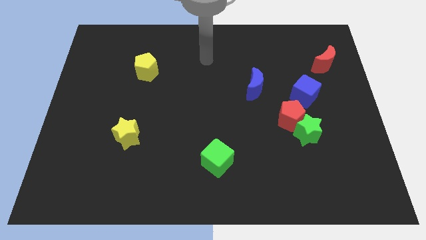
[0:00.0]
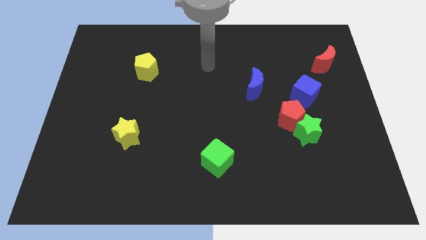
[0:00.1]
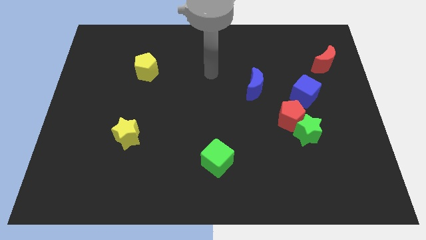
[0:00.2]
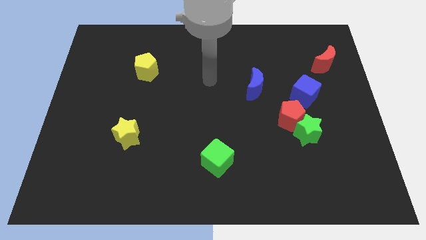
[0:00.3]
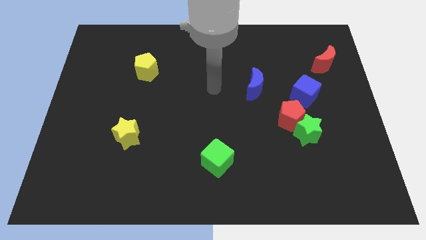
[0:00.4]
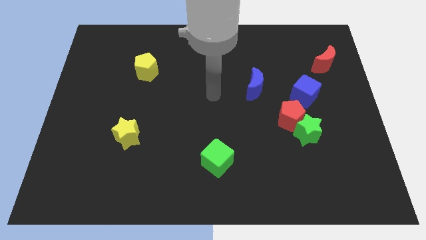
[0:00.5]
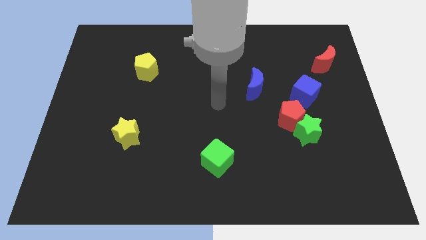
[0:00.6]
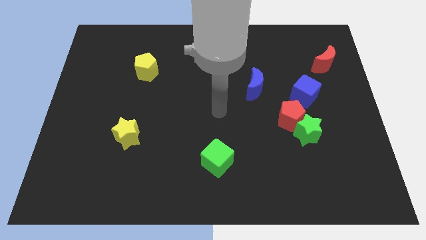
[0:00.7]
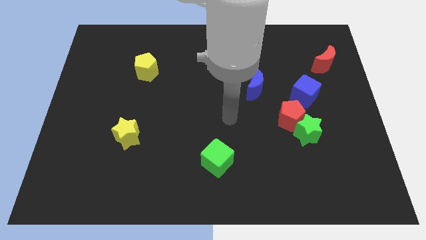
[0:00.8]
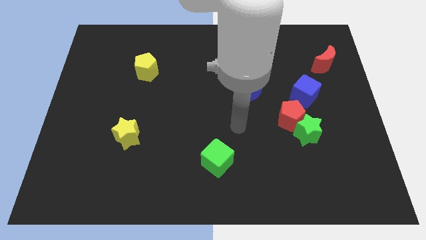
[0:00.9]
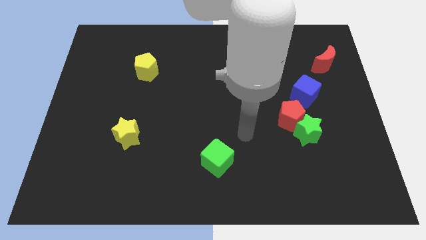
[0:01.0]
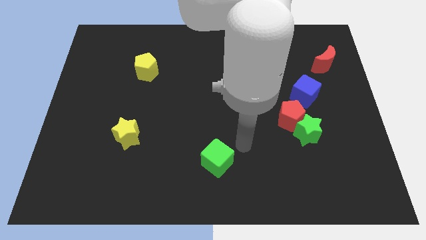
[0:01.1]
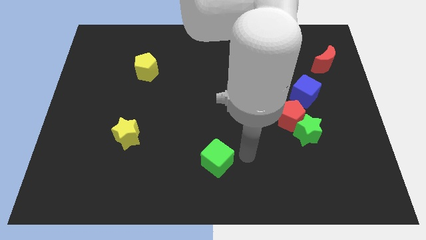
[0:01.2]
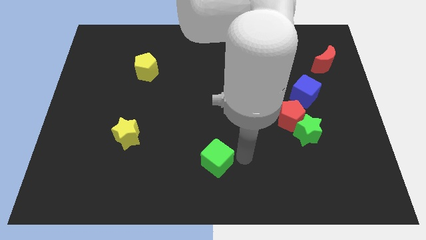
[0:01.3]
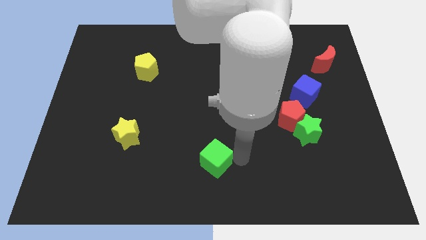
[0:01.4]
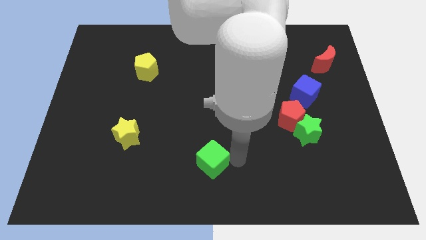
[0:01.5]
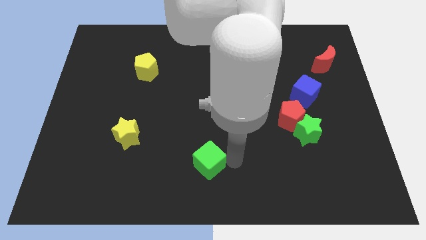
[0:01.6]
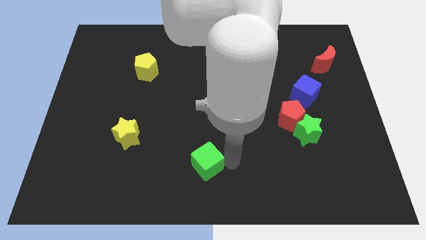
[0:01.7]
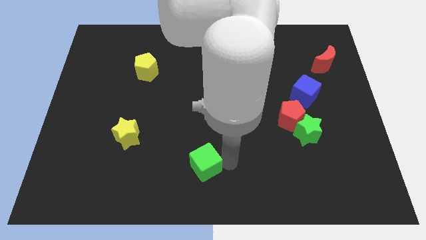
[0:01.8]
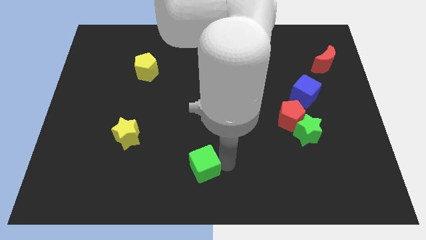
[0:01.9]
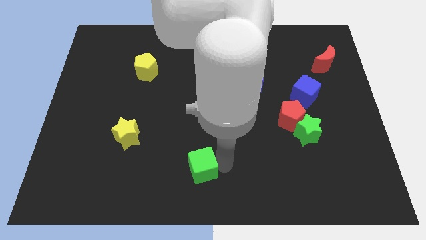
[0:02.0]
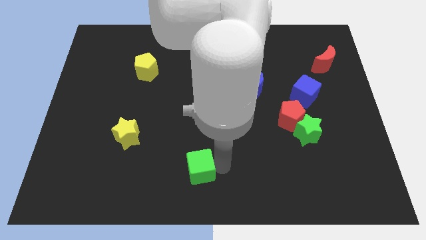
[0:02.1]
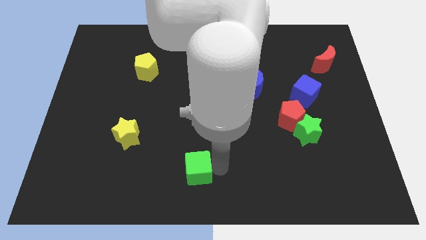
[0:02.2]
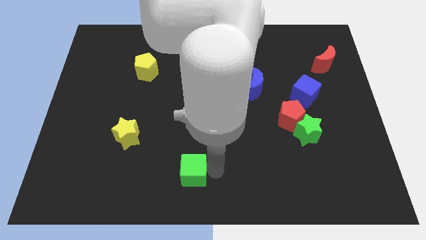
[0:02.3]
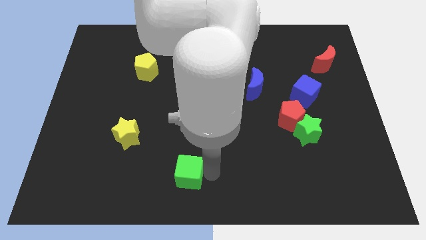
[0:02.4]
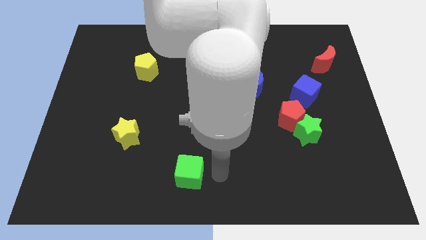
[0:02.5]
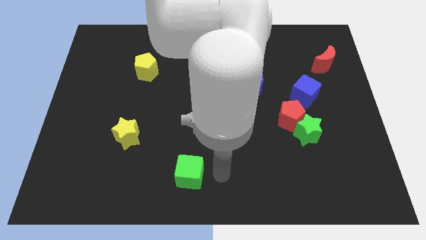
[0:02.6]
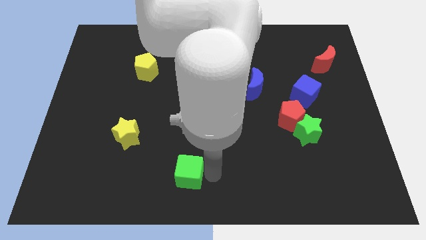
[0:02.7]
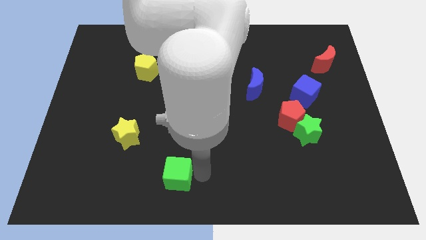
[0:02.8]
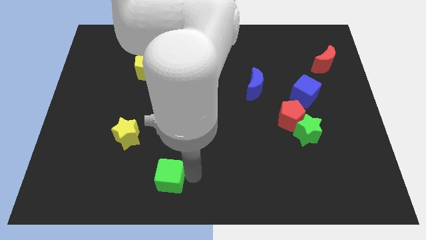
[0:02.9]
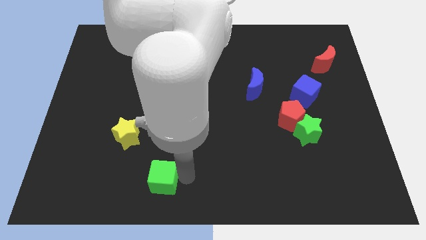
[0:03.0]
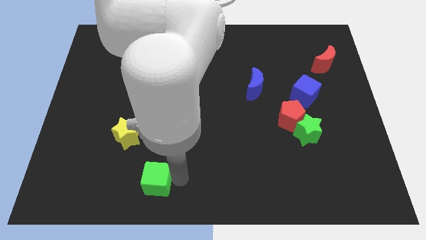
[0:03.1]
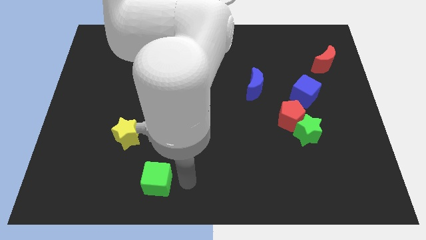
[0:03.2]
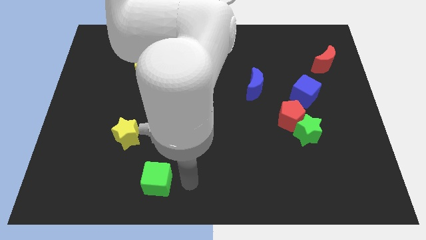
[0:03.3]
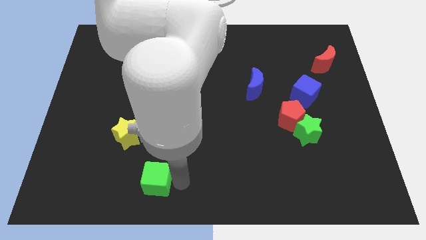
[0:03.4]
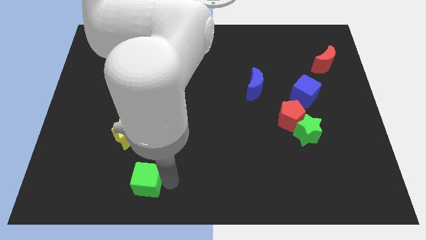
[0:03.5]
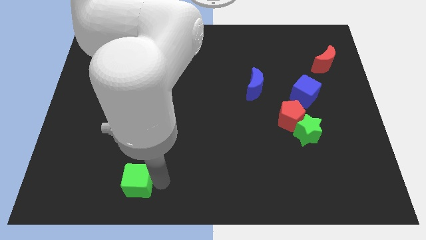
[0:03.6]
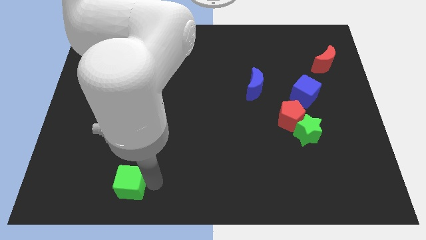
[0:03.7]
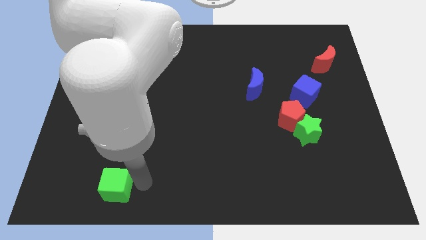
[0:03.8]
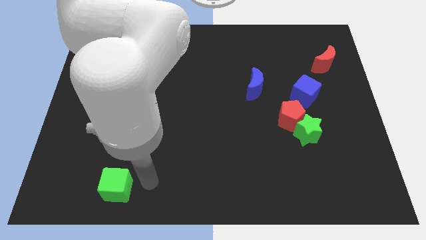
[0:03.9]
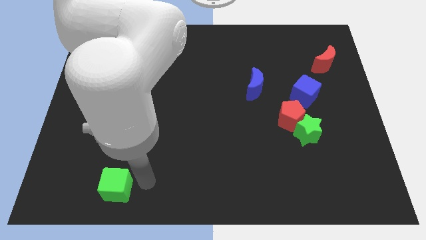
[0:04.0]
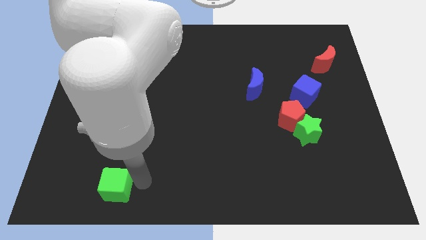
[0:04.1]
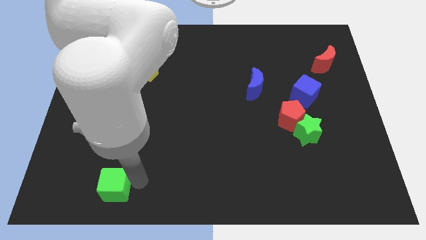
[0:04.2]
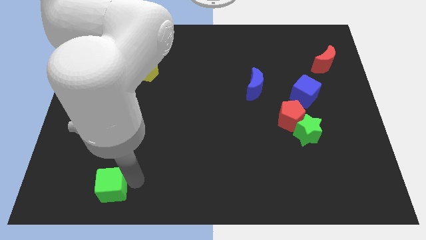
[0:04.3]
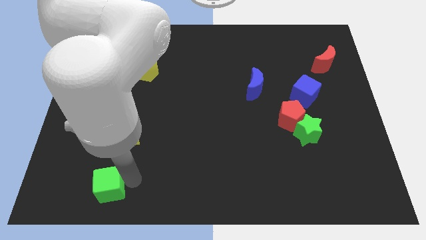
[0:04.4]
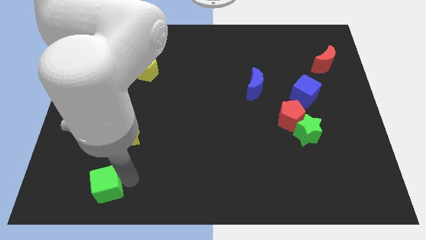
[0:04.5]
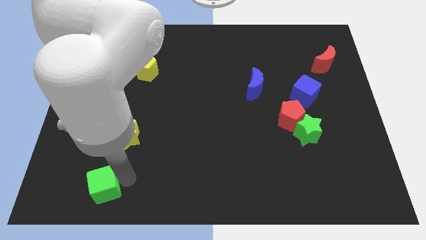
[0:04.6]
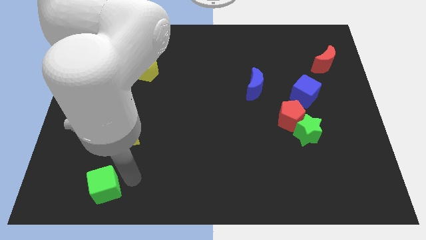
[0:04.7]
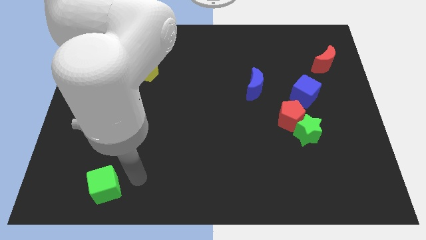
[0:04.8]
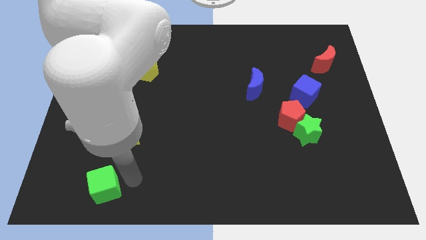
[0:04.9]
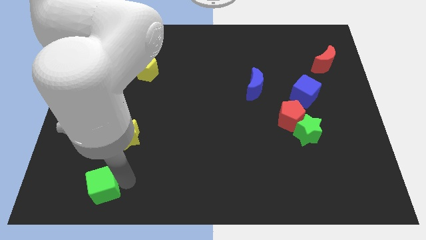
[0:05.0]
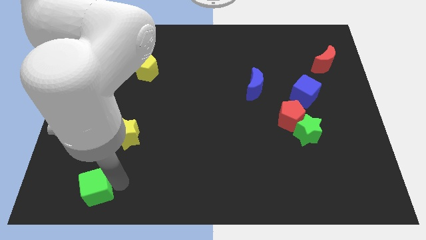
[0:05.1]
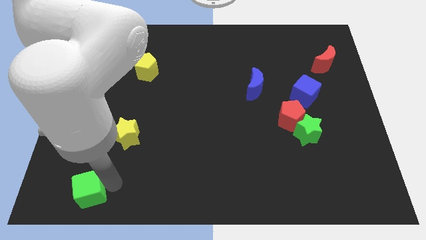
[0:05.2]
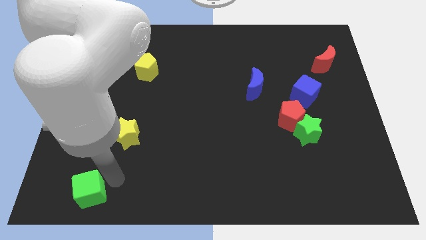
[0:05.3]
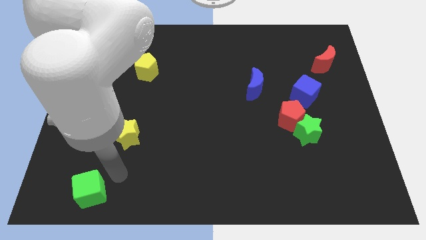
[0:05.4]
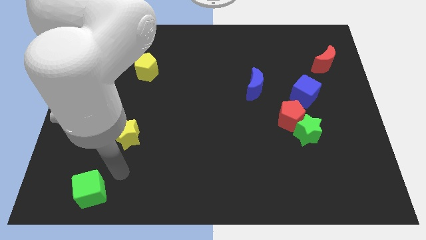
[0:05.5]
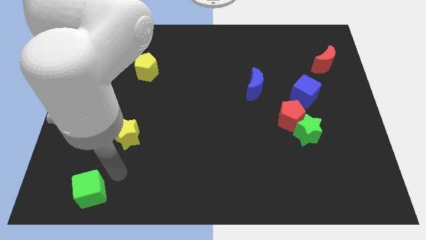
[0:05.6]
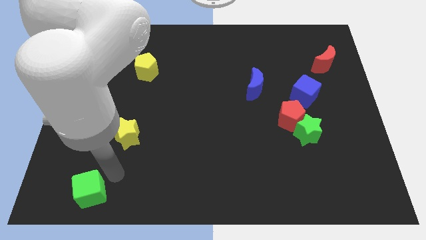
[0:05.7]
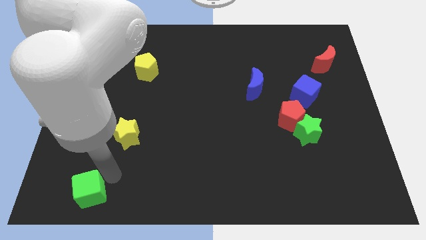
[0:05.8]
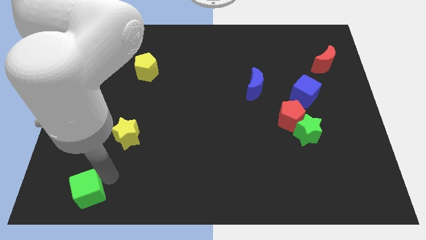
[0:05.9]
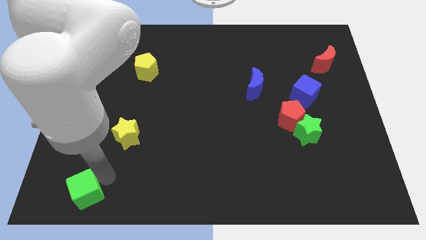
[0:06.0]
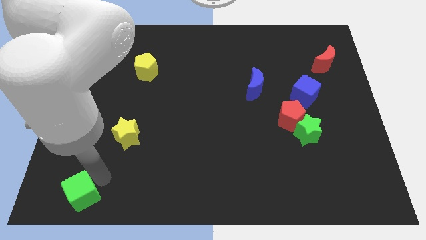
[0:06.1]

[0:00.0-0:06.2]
push the green cube to the lower left corner
